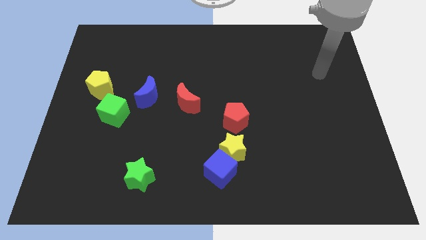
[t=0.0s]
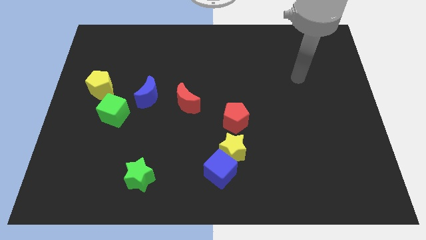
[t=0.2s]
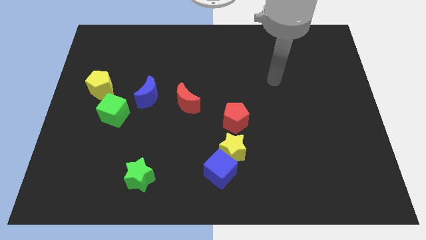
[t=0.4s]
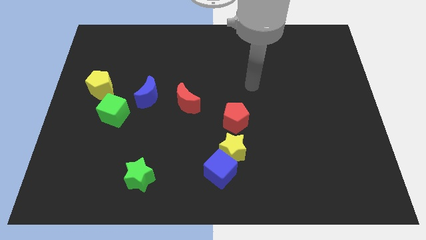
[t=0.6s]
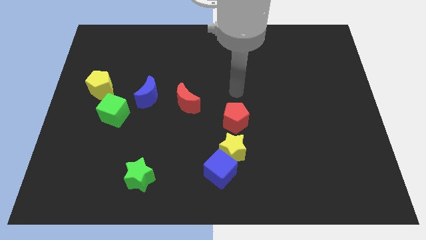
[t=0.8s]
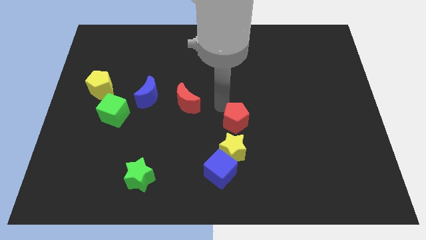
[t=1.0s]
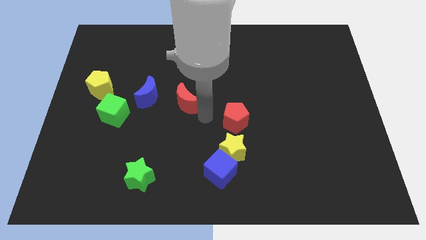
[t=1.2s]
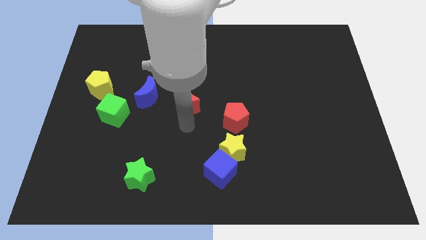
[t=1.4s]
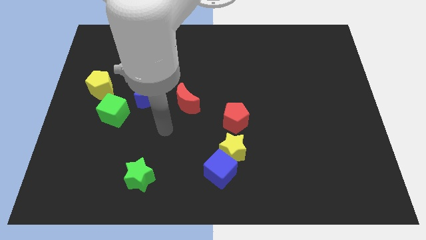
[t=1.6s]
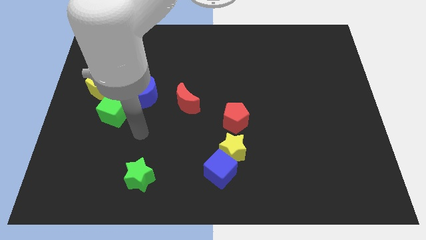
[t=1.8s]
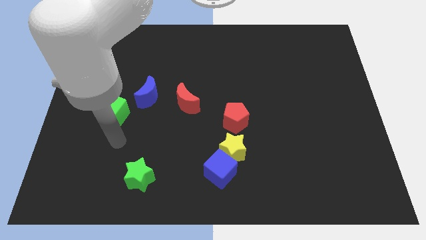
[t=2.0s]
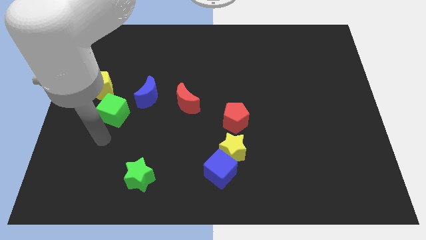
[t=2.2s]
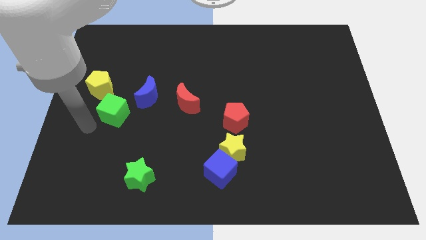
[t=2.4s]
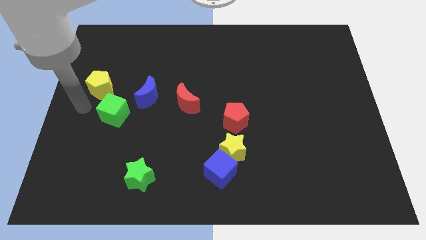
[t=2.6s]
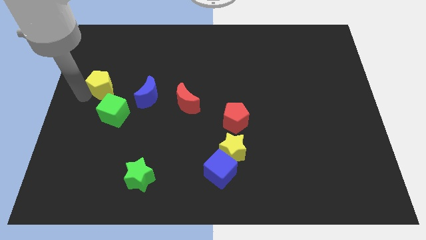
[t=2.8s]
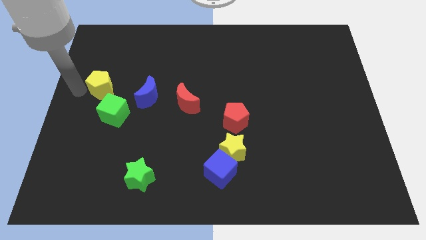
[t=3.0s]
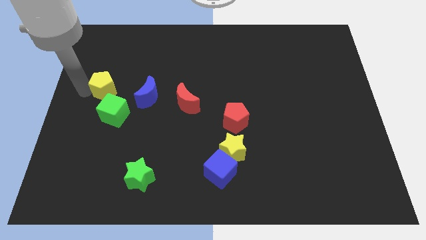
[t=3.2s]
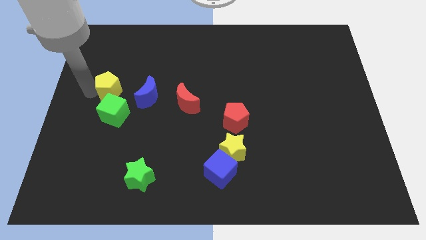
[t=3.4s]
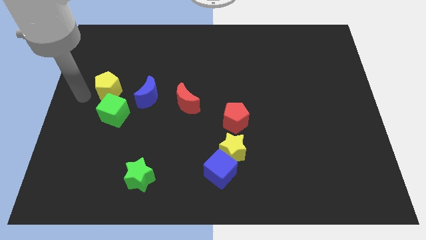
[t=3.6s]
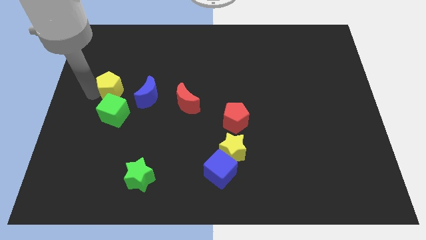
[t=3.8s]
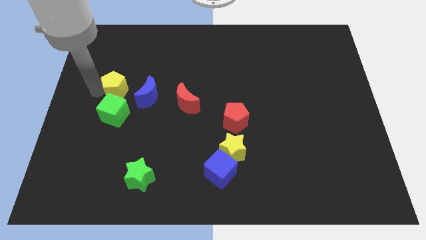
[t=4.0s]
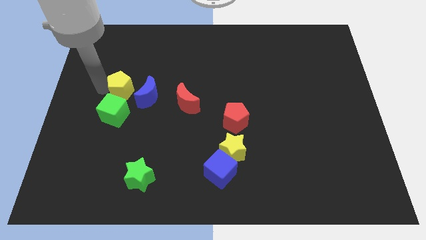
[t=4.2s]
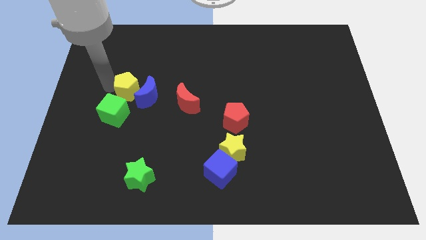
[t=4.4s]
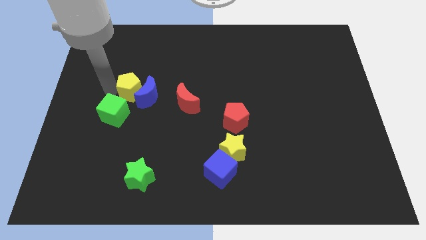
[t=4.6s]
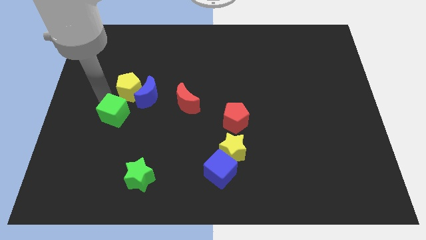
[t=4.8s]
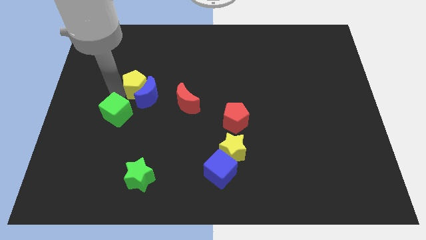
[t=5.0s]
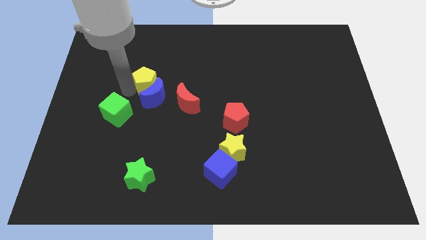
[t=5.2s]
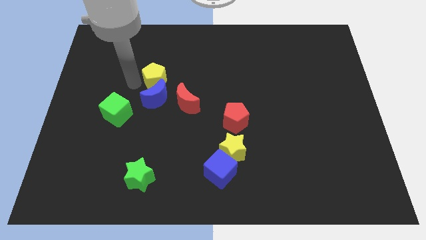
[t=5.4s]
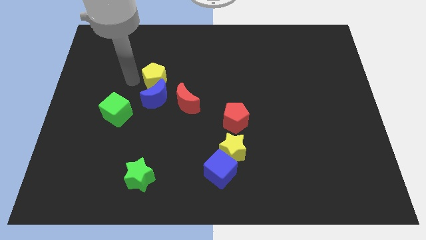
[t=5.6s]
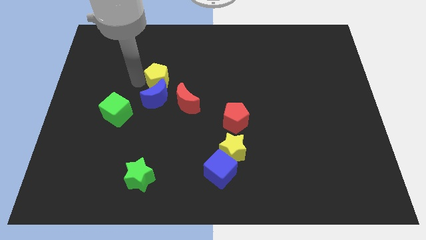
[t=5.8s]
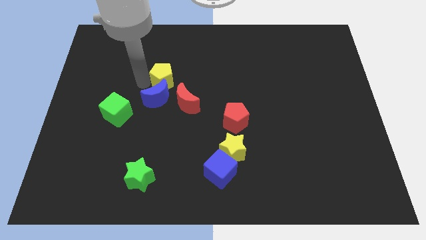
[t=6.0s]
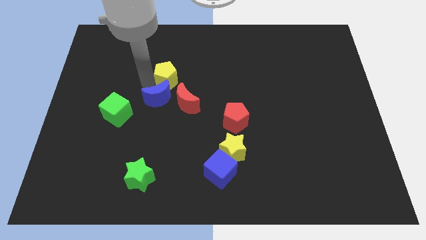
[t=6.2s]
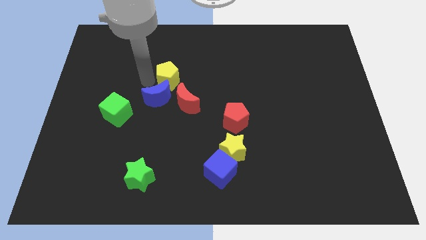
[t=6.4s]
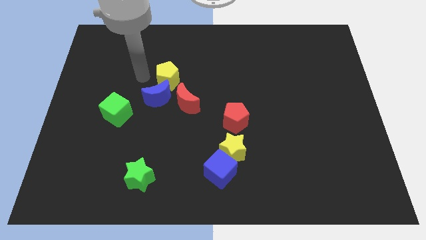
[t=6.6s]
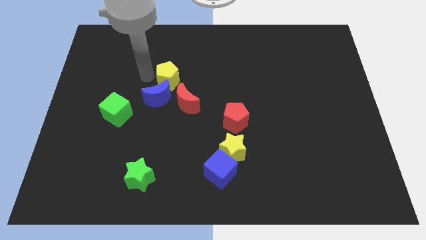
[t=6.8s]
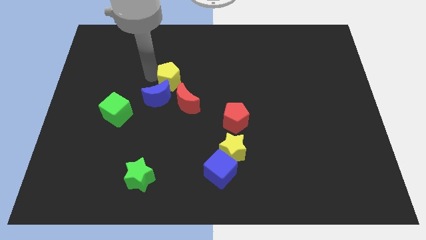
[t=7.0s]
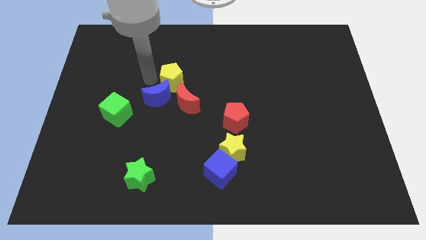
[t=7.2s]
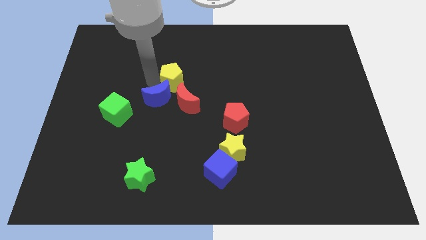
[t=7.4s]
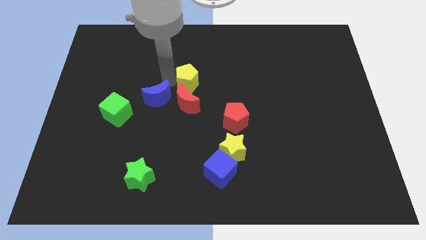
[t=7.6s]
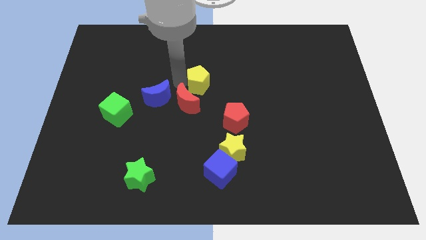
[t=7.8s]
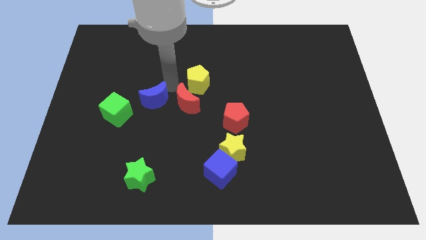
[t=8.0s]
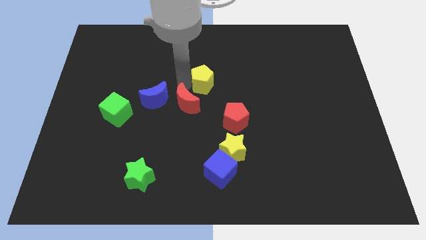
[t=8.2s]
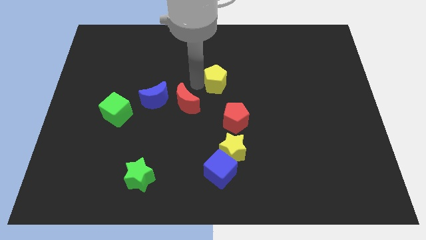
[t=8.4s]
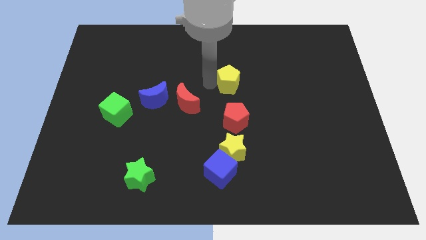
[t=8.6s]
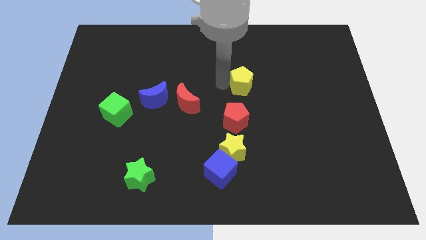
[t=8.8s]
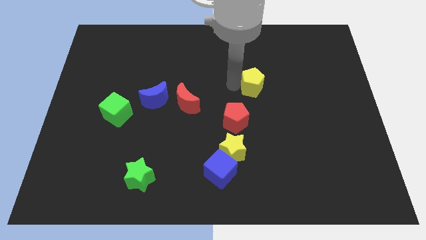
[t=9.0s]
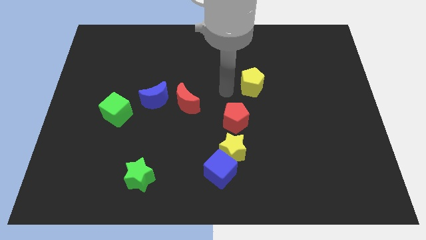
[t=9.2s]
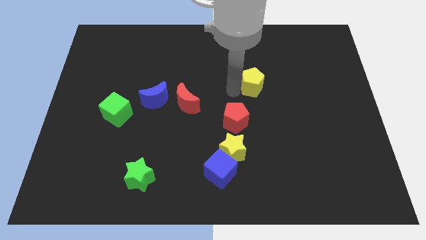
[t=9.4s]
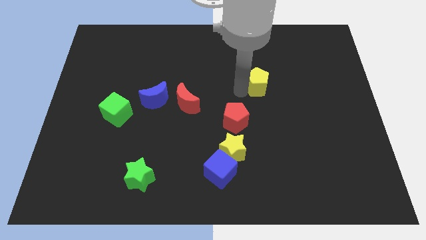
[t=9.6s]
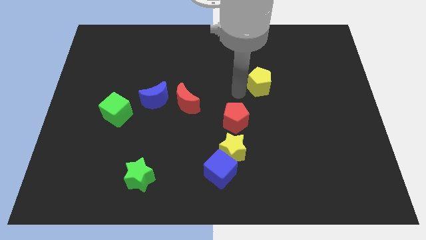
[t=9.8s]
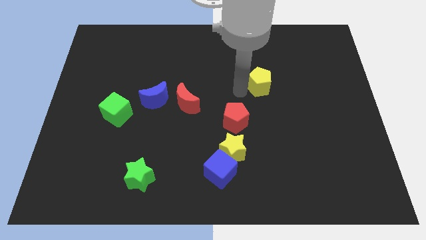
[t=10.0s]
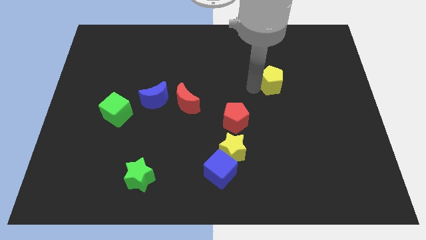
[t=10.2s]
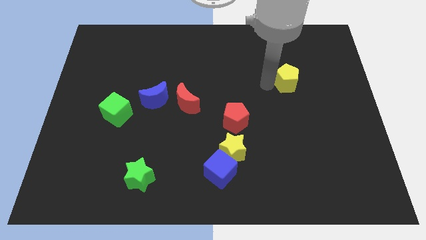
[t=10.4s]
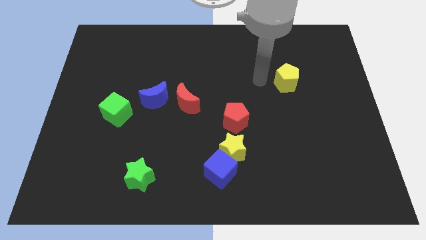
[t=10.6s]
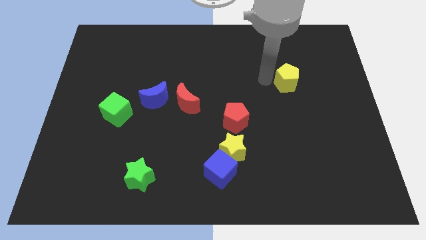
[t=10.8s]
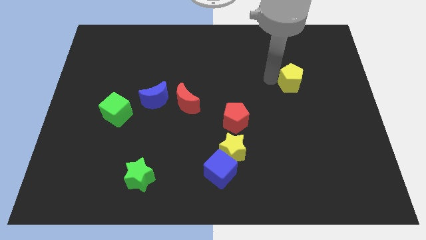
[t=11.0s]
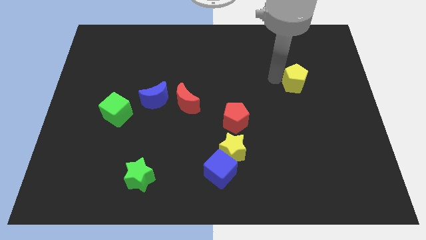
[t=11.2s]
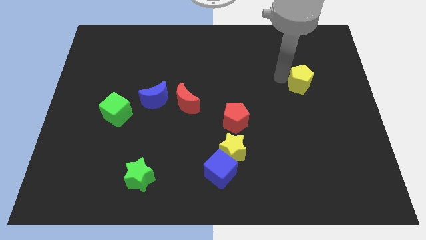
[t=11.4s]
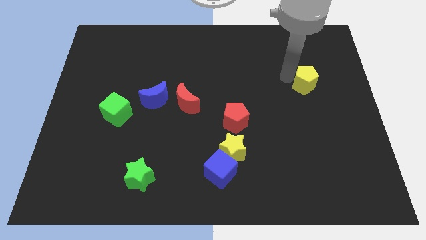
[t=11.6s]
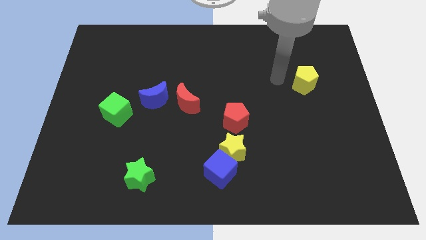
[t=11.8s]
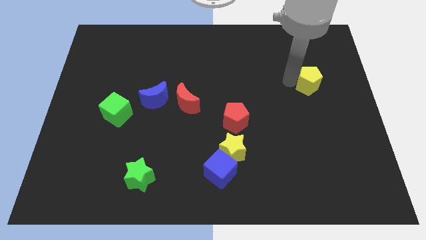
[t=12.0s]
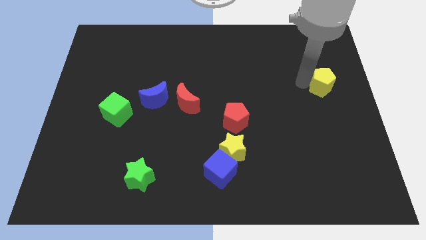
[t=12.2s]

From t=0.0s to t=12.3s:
move the yellow pentagon to the right side of the board

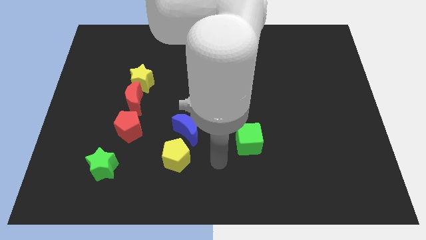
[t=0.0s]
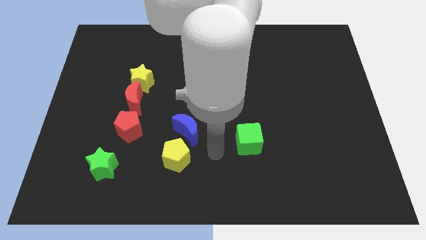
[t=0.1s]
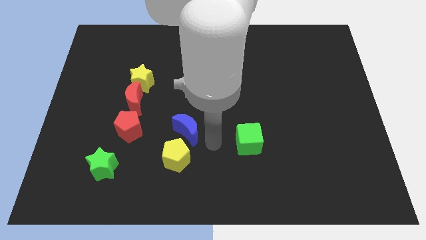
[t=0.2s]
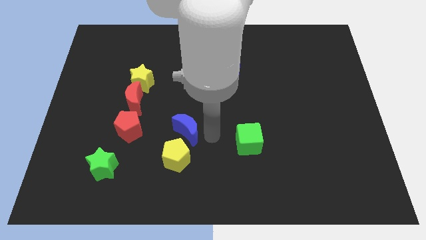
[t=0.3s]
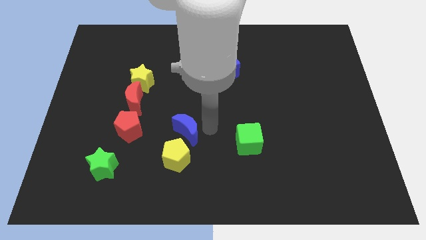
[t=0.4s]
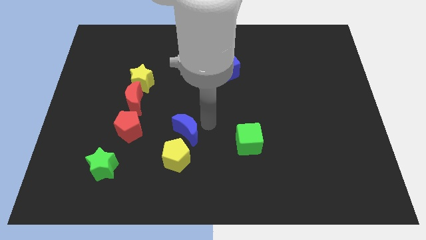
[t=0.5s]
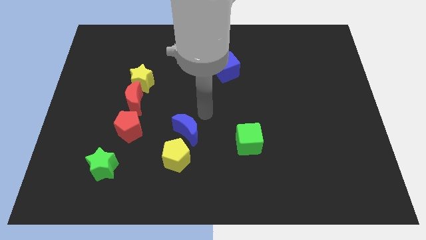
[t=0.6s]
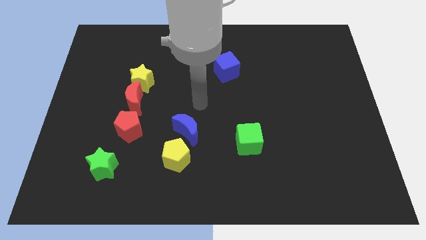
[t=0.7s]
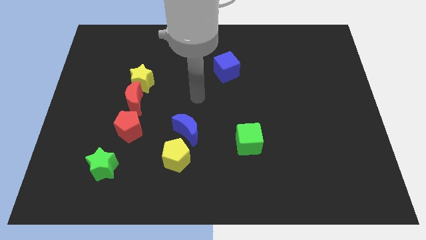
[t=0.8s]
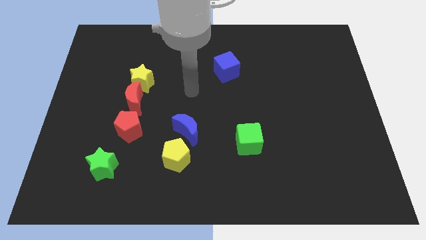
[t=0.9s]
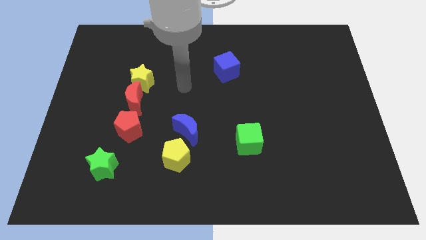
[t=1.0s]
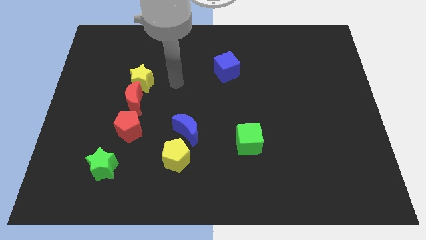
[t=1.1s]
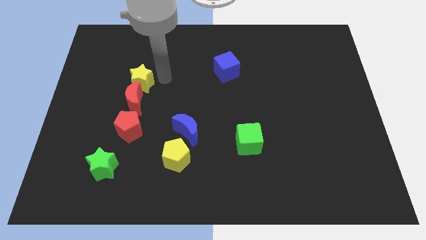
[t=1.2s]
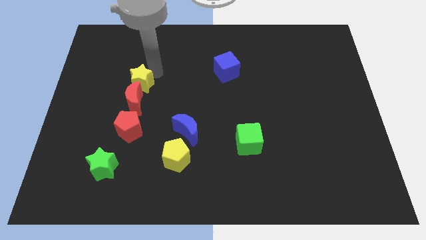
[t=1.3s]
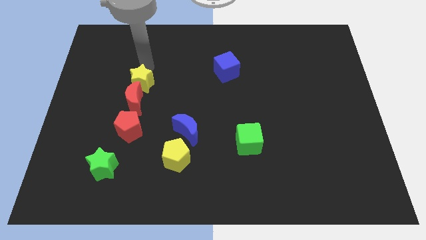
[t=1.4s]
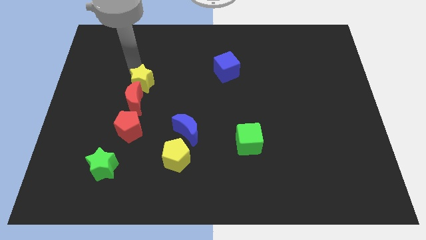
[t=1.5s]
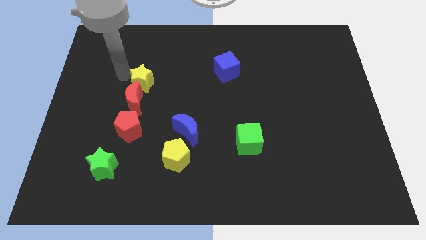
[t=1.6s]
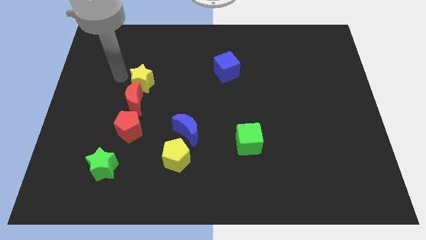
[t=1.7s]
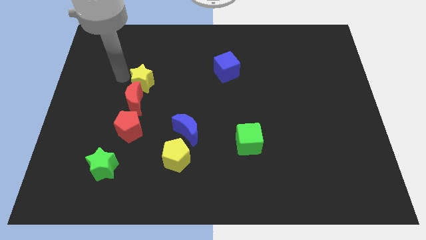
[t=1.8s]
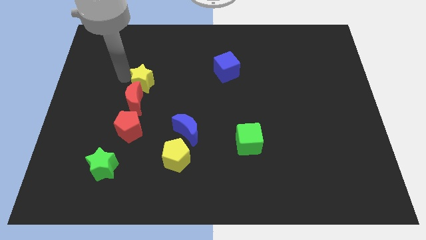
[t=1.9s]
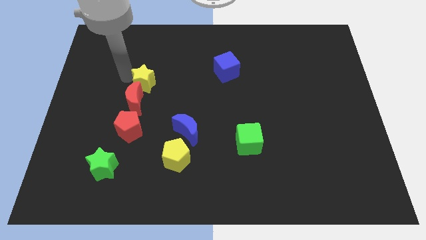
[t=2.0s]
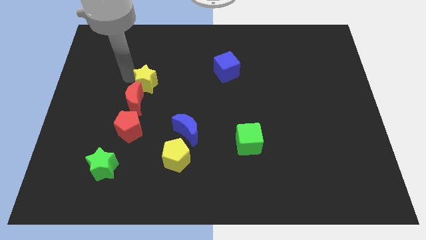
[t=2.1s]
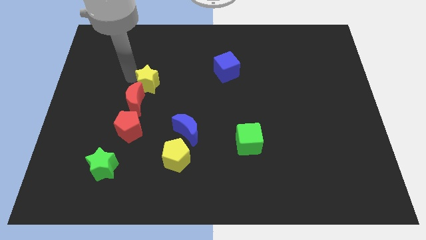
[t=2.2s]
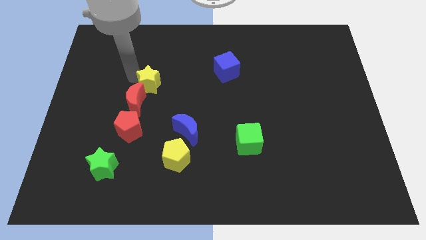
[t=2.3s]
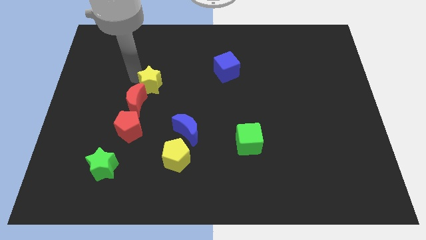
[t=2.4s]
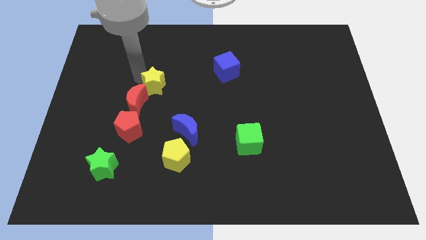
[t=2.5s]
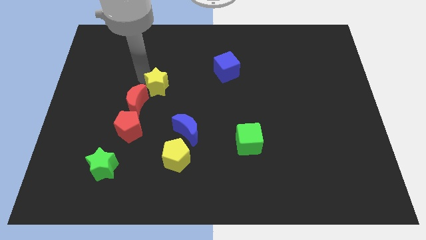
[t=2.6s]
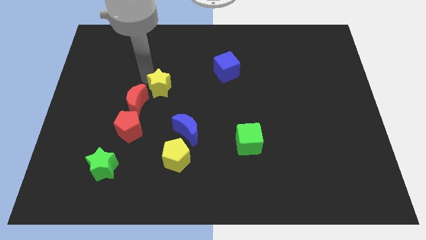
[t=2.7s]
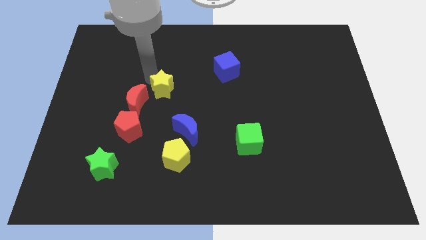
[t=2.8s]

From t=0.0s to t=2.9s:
push the yellow star to the middle of the board
